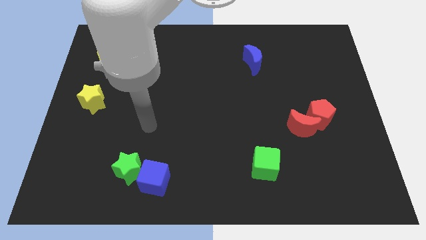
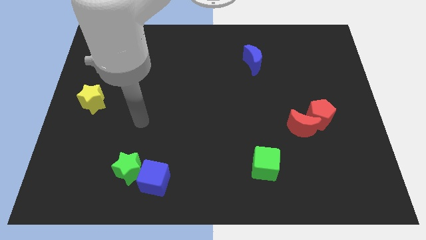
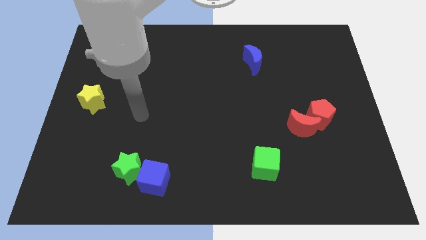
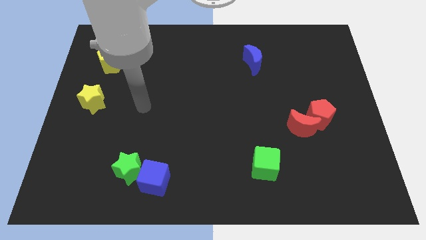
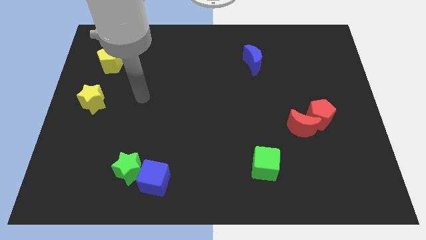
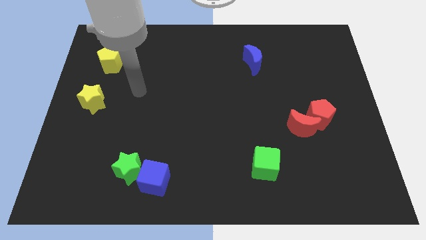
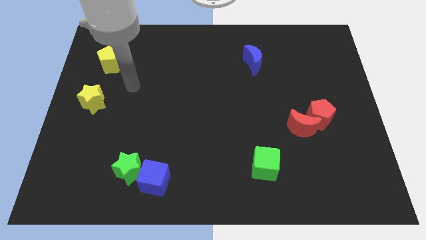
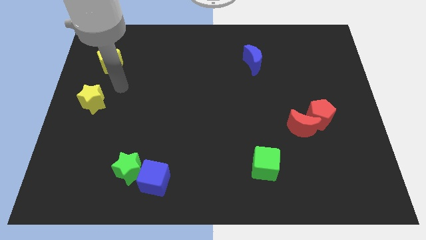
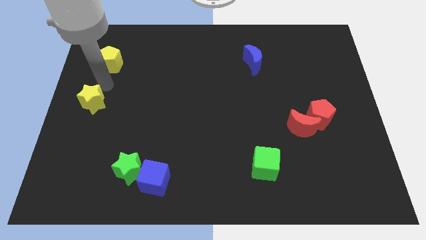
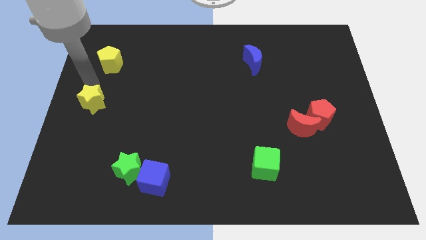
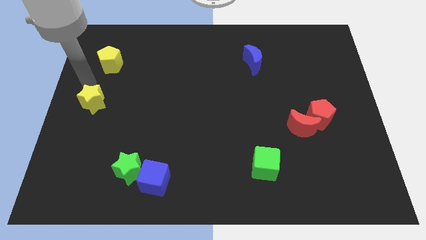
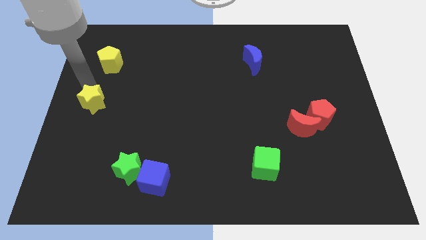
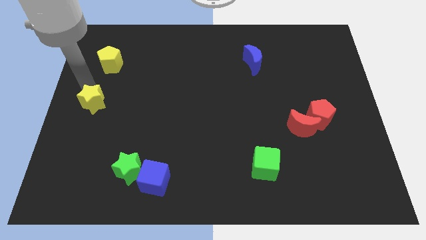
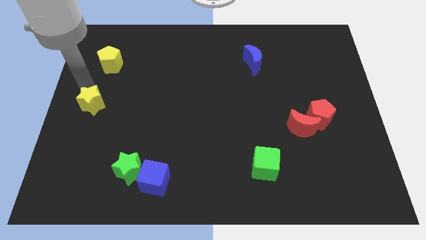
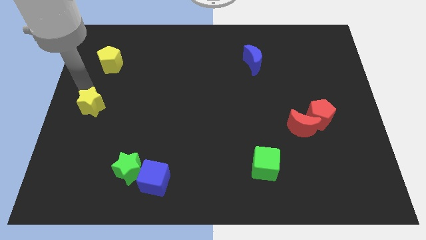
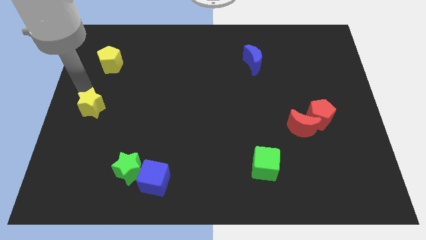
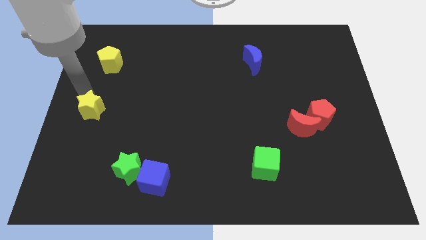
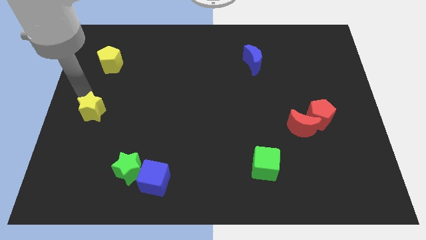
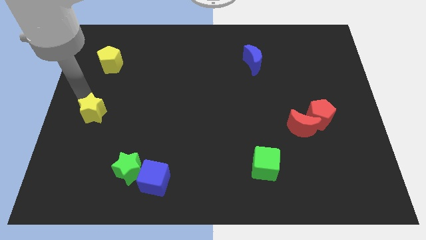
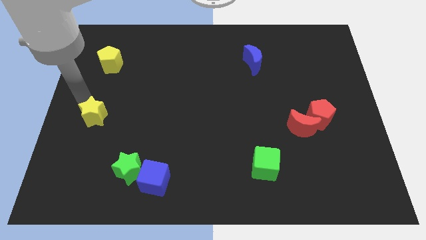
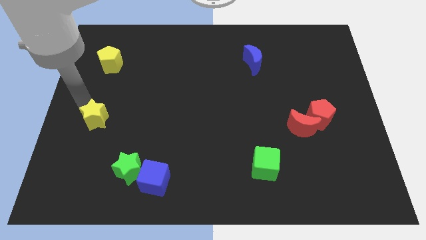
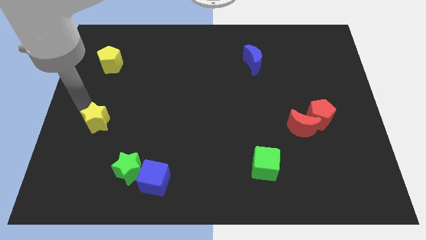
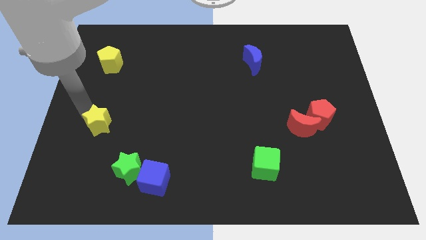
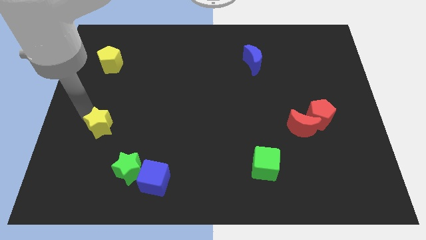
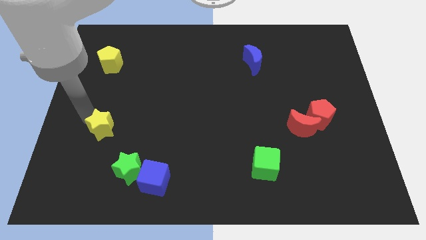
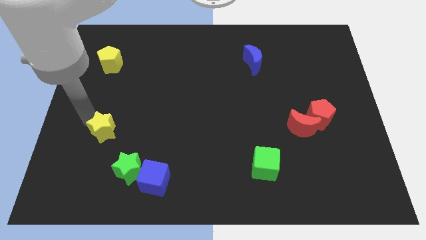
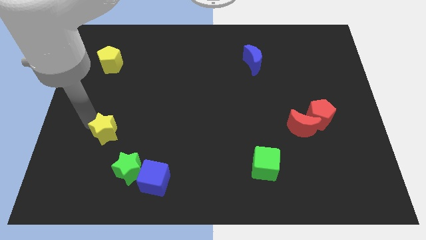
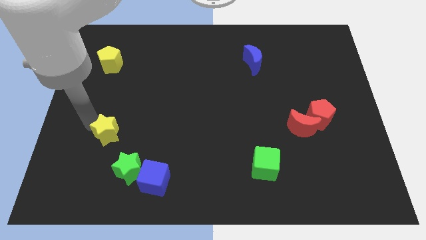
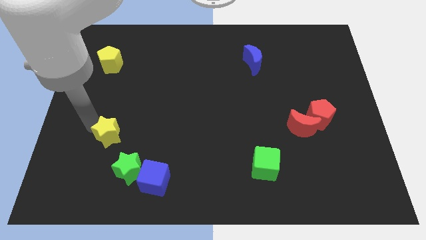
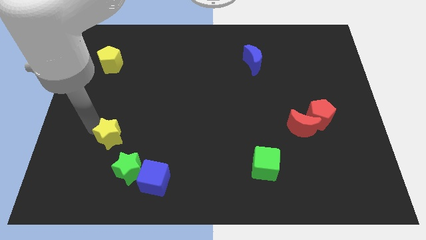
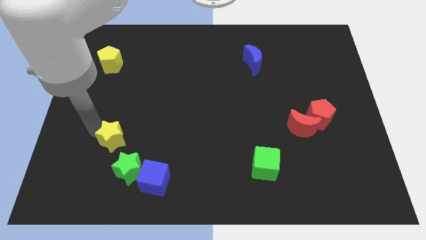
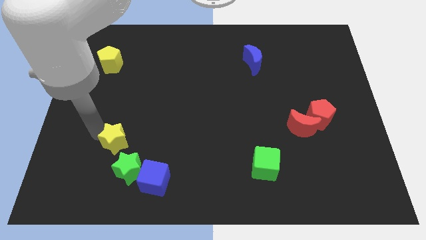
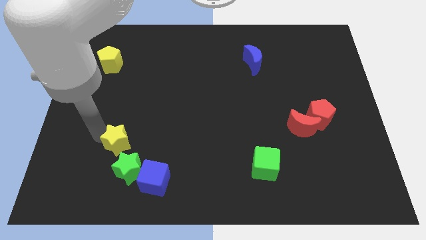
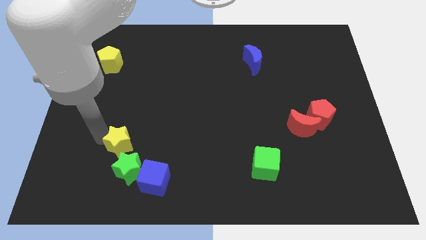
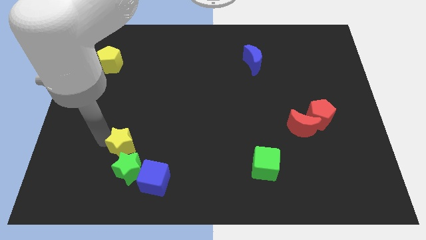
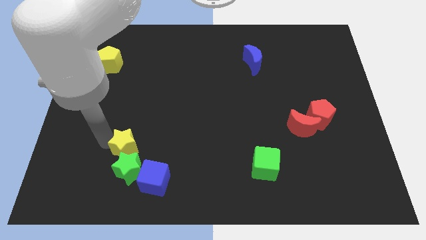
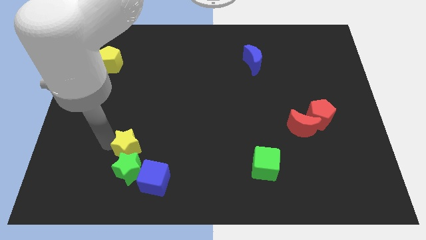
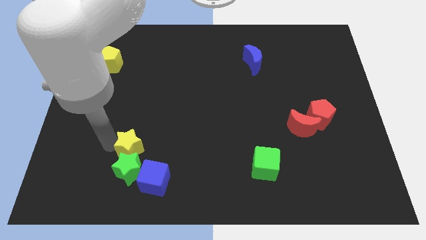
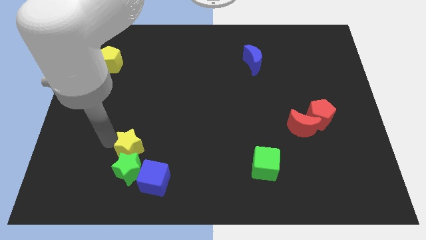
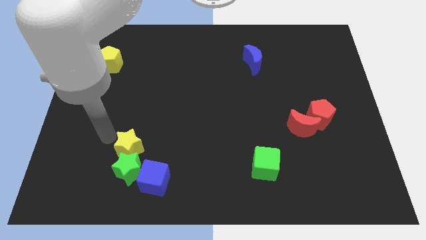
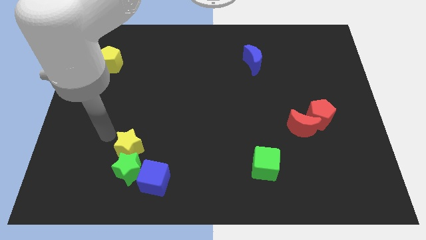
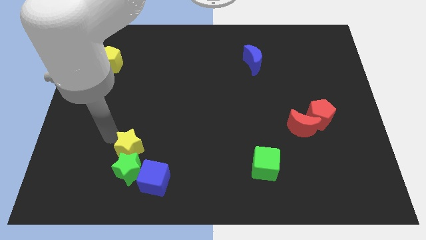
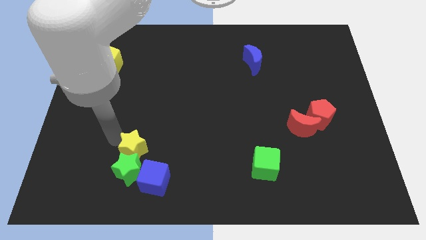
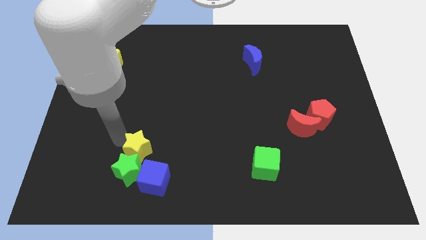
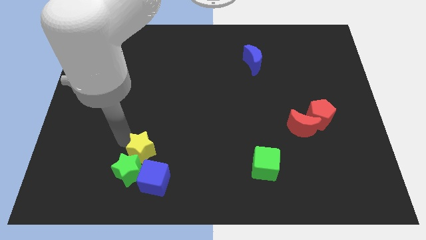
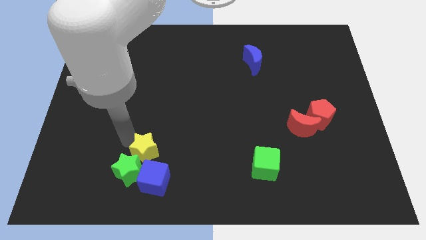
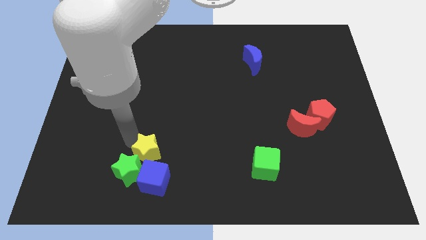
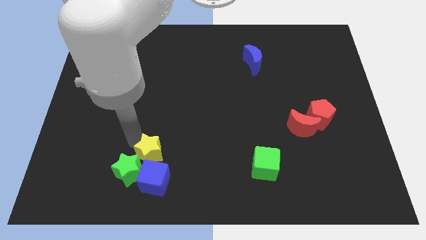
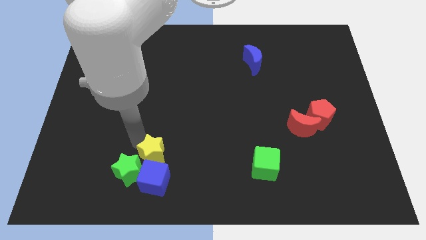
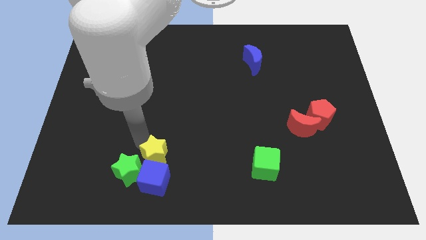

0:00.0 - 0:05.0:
push the yellow star close to the blue cube

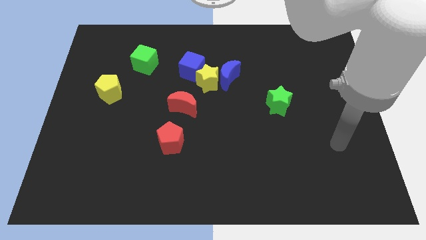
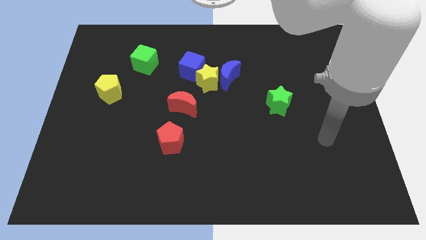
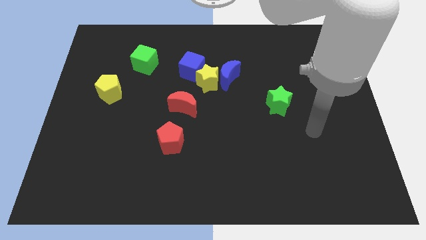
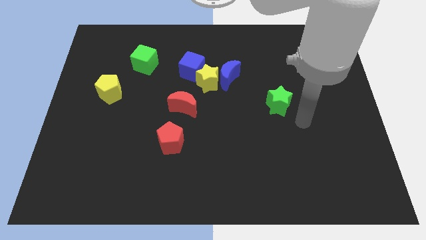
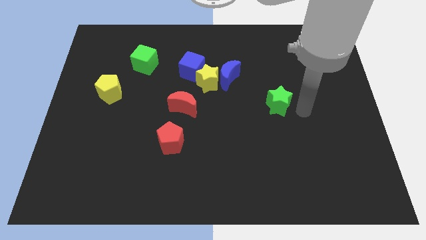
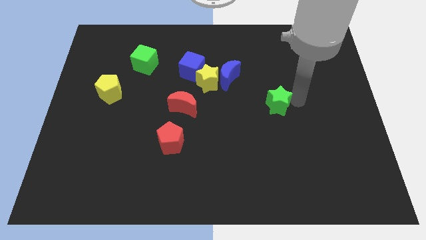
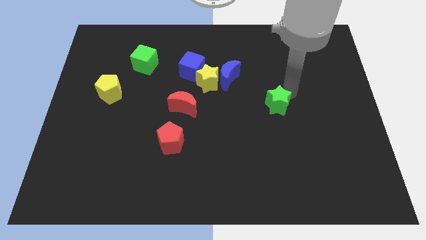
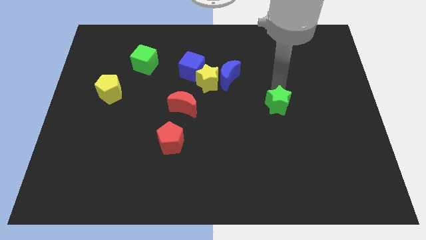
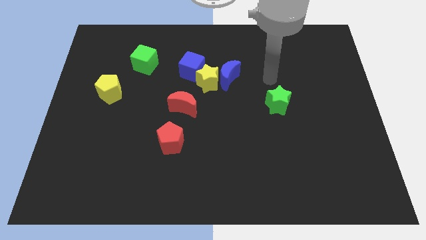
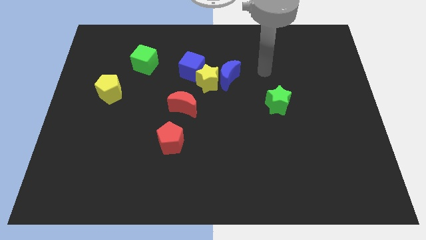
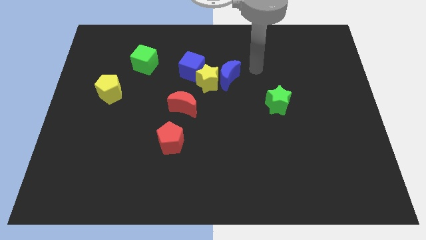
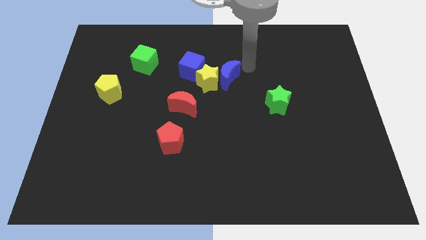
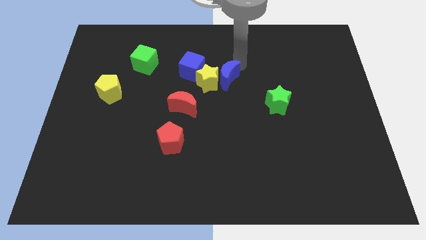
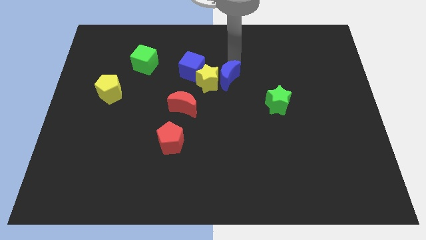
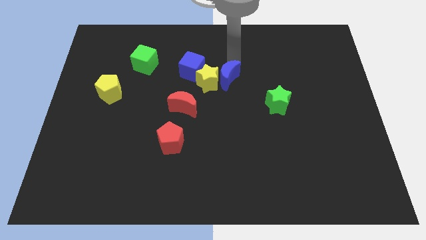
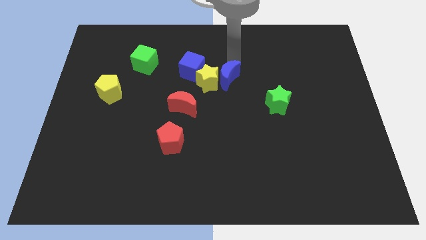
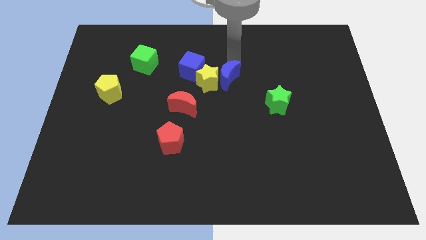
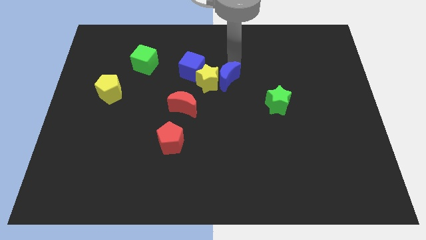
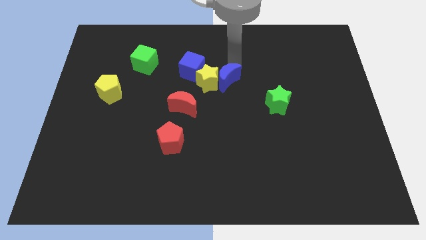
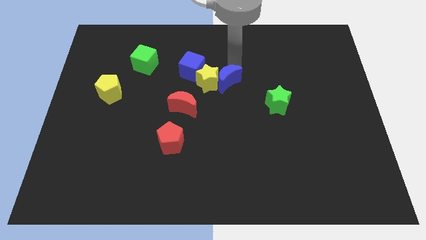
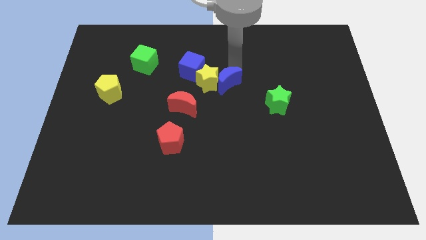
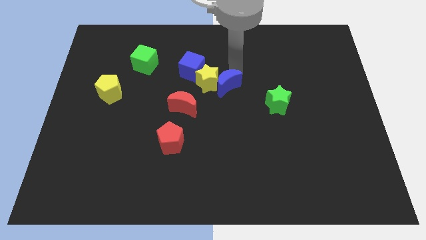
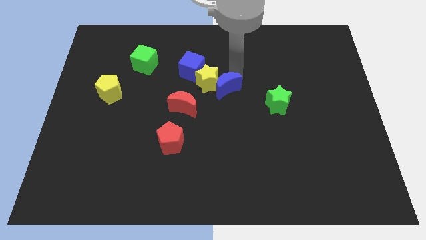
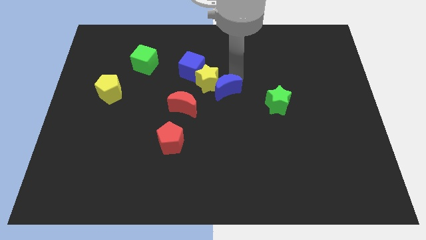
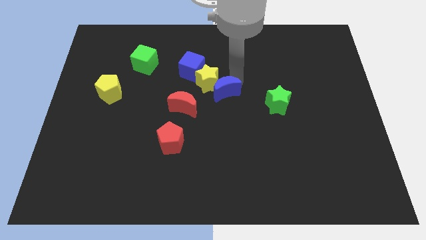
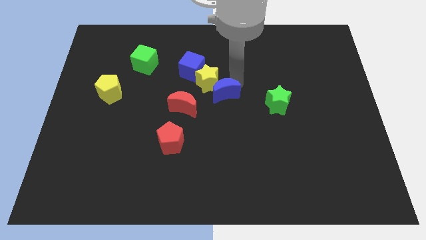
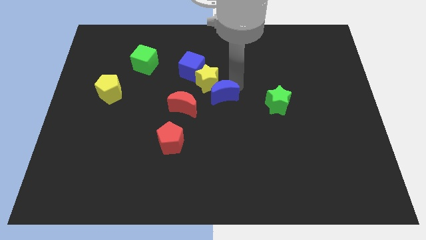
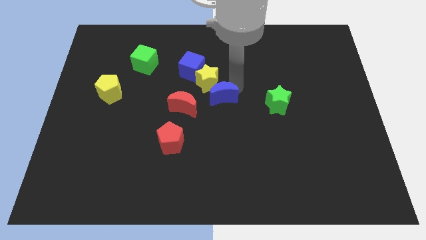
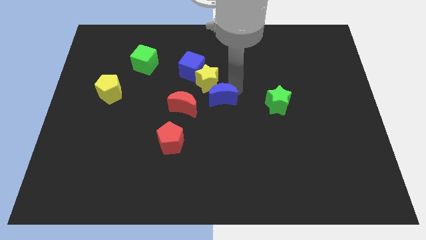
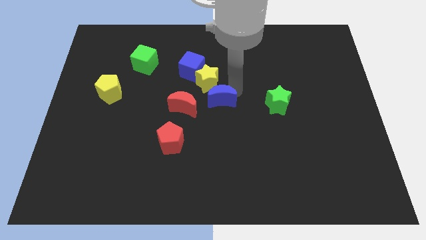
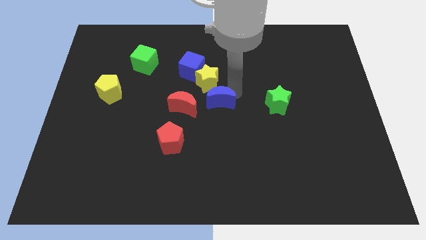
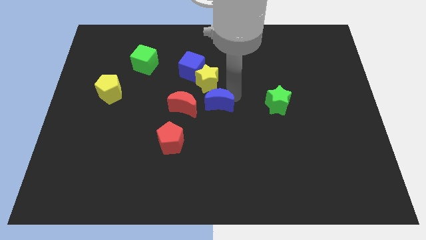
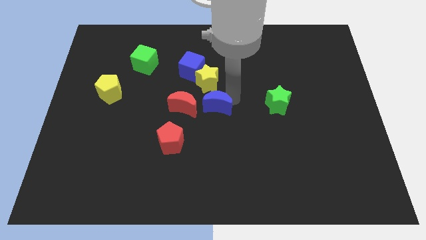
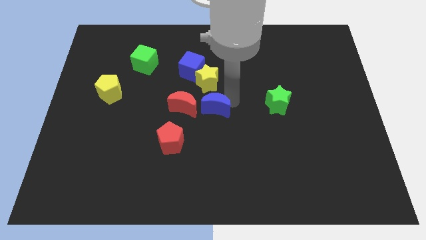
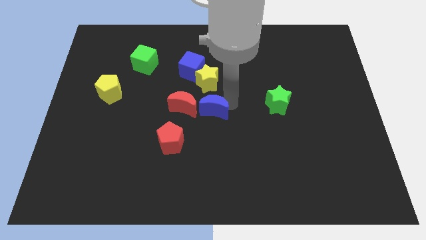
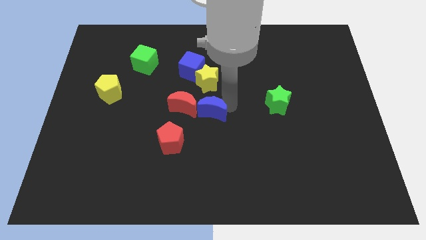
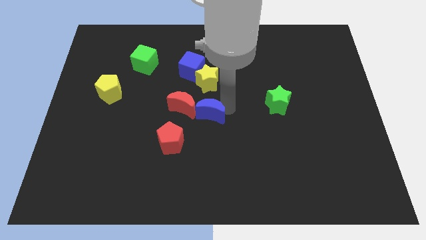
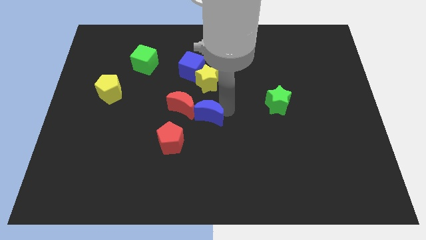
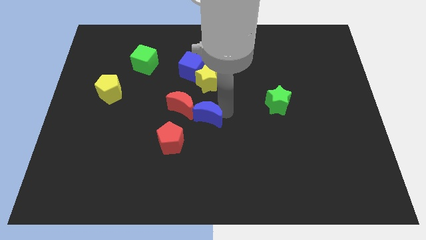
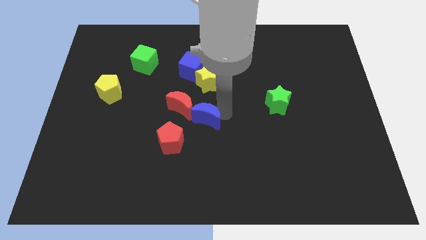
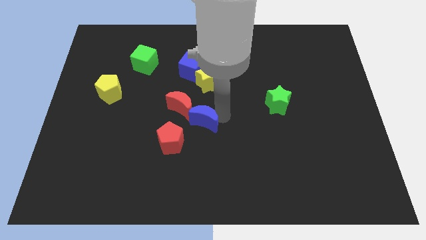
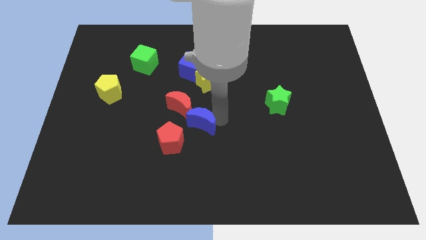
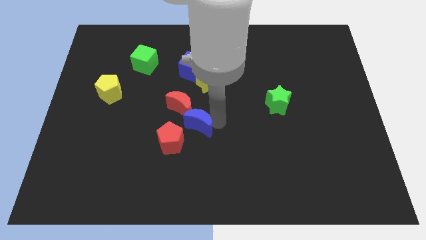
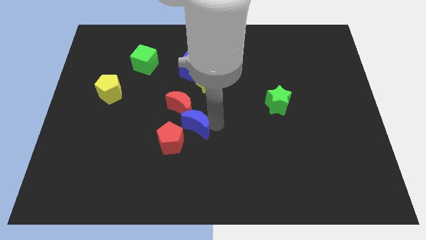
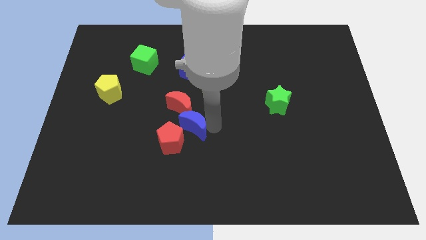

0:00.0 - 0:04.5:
slide the blue moon close to the red pentagon
